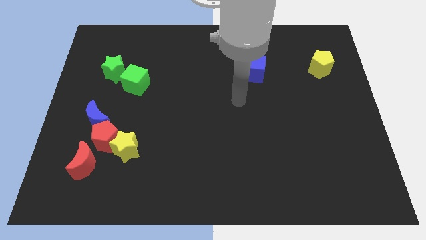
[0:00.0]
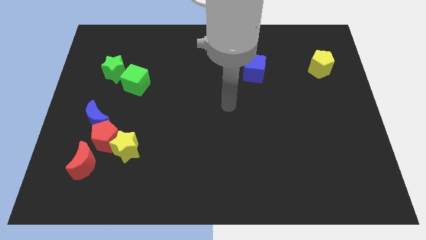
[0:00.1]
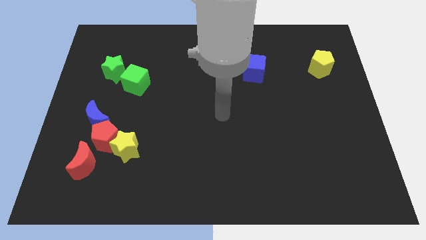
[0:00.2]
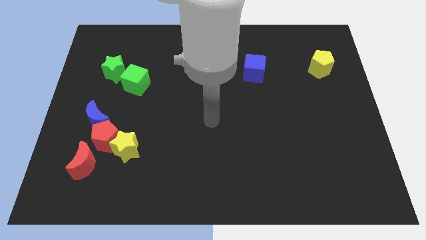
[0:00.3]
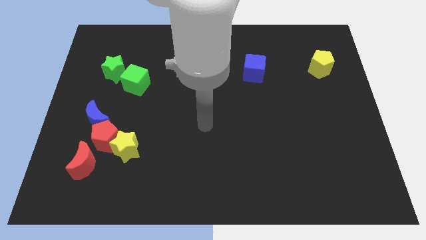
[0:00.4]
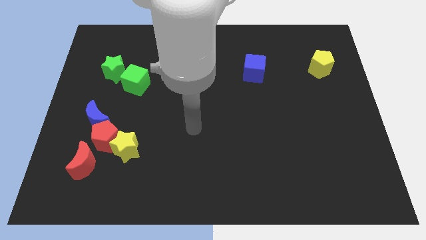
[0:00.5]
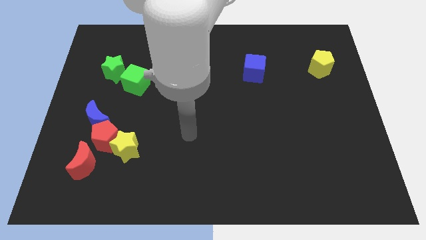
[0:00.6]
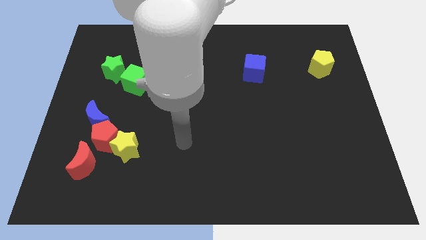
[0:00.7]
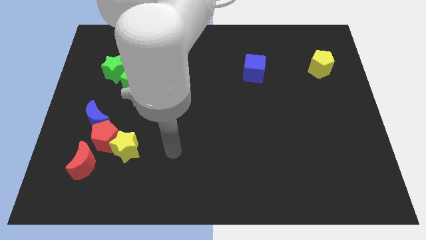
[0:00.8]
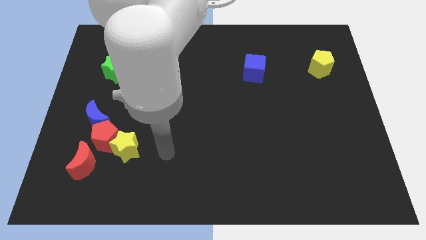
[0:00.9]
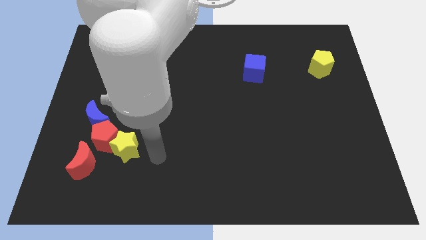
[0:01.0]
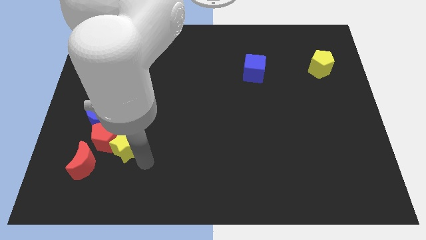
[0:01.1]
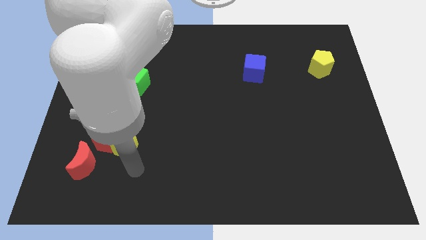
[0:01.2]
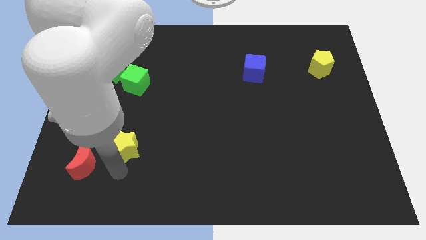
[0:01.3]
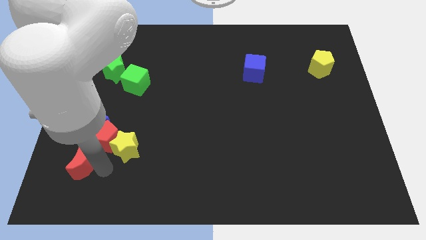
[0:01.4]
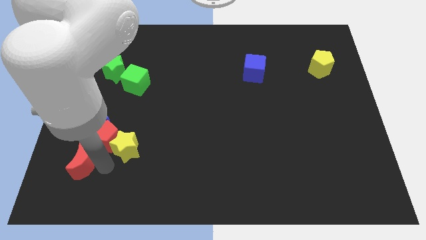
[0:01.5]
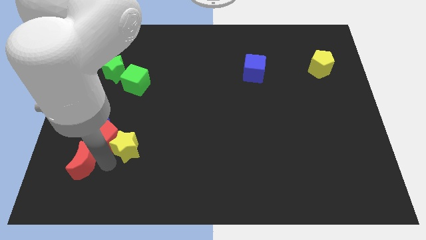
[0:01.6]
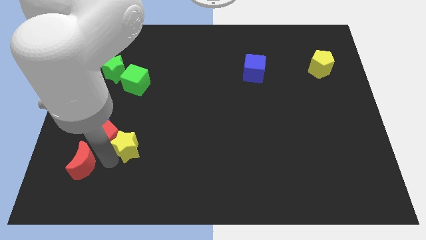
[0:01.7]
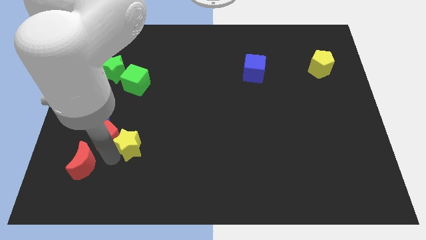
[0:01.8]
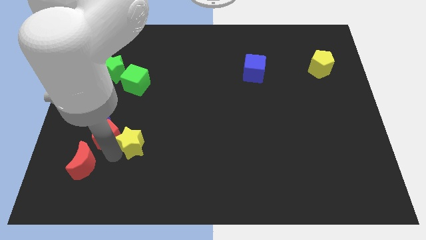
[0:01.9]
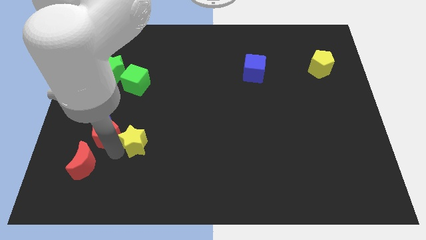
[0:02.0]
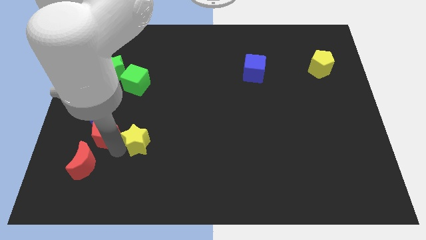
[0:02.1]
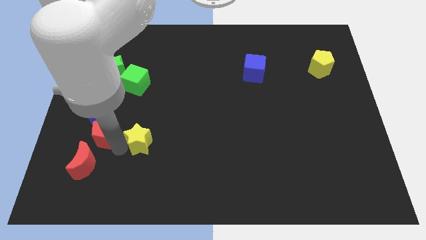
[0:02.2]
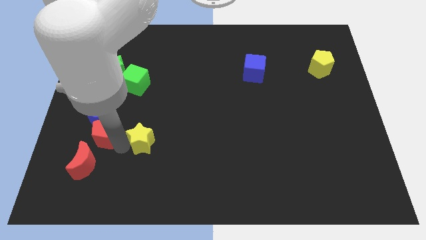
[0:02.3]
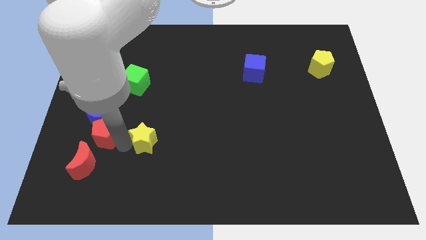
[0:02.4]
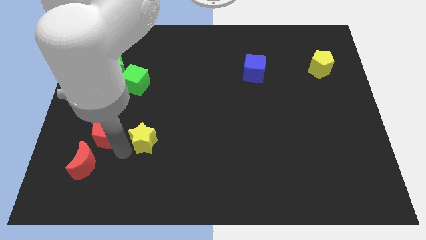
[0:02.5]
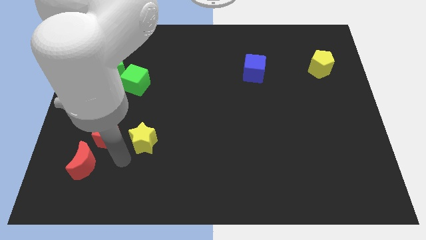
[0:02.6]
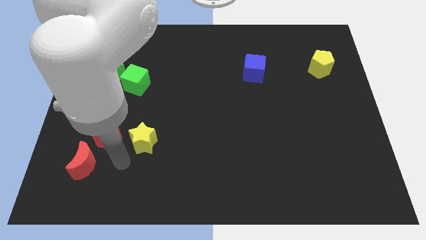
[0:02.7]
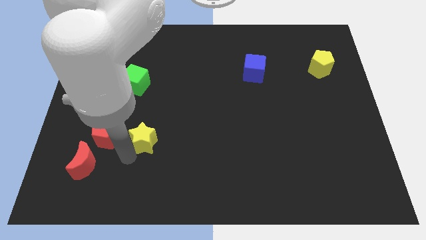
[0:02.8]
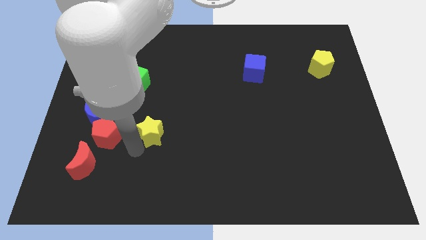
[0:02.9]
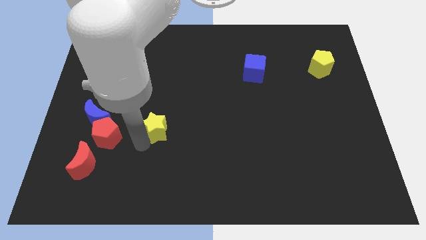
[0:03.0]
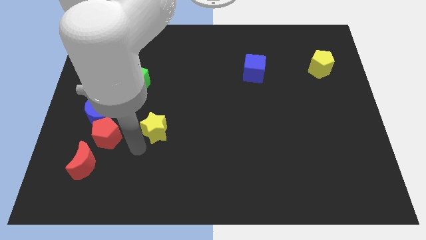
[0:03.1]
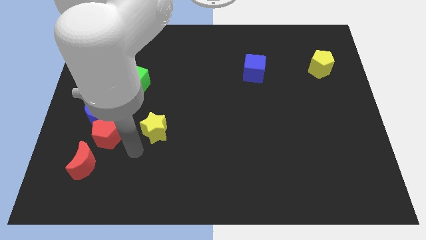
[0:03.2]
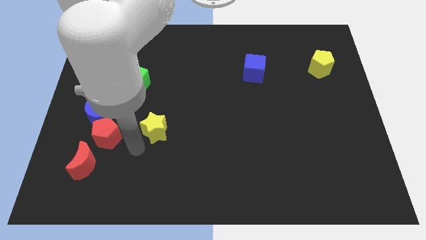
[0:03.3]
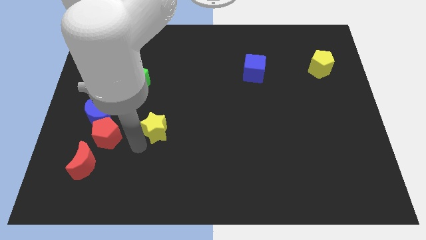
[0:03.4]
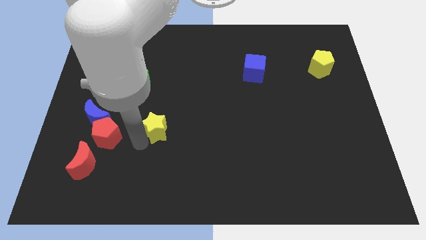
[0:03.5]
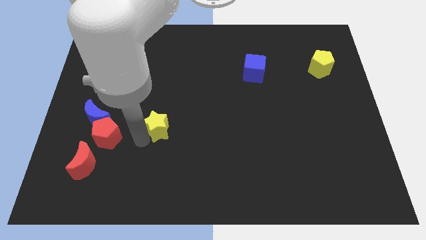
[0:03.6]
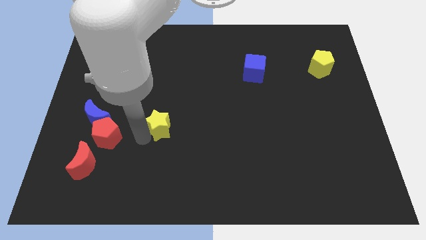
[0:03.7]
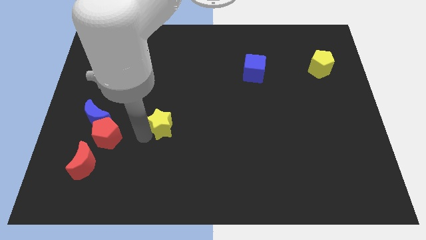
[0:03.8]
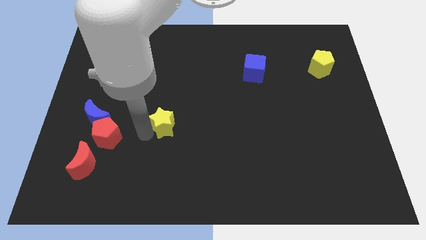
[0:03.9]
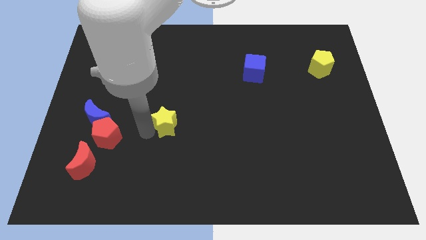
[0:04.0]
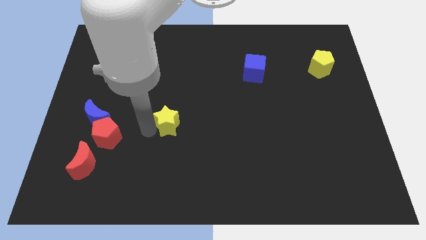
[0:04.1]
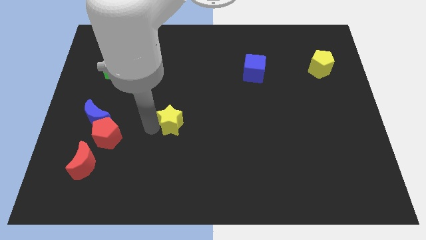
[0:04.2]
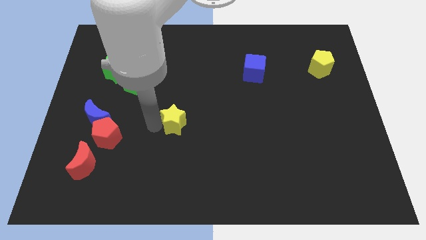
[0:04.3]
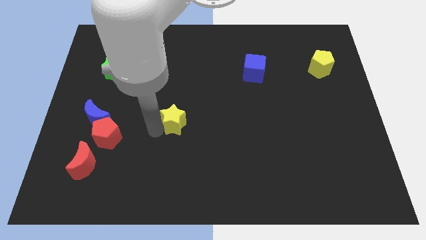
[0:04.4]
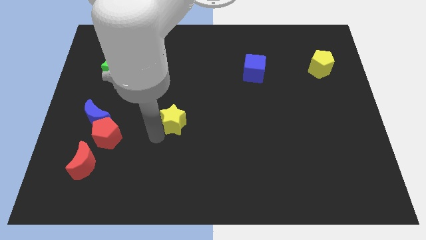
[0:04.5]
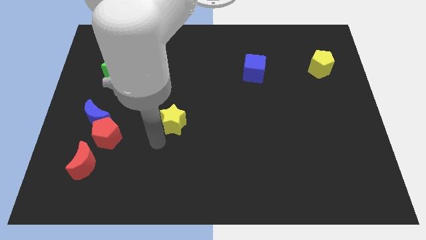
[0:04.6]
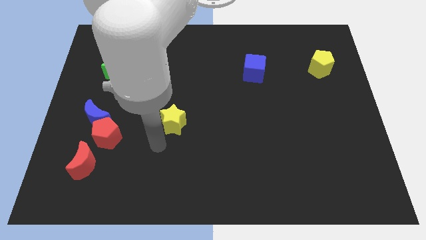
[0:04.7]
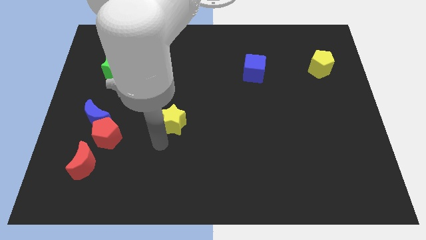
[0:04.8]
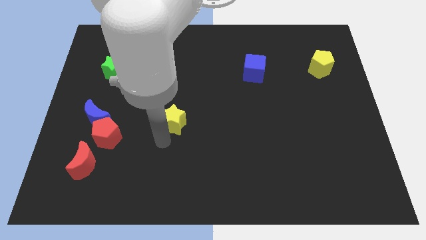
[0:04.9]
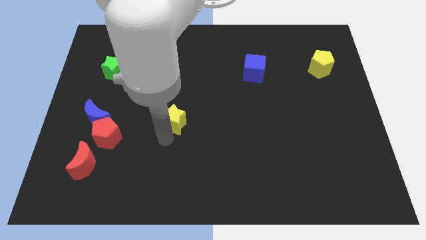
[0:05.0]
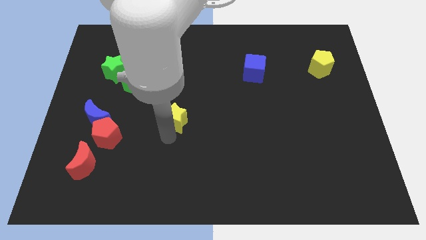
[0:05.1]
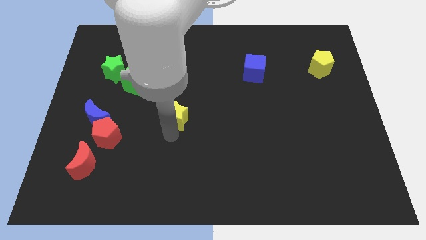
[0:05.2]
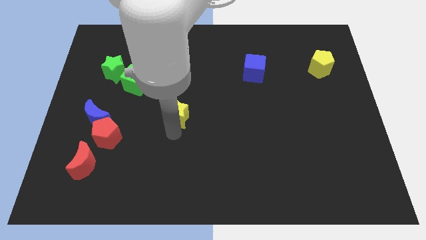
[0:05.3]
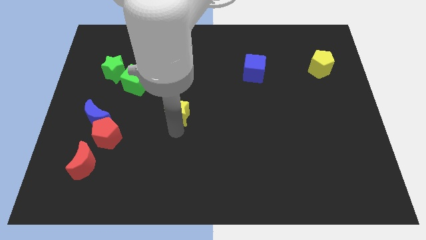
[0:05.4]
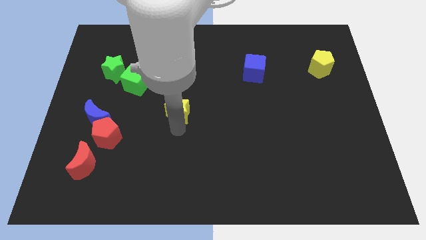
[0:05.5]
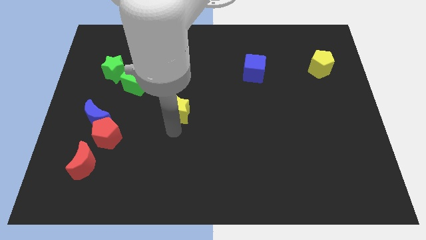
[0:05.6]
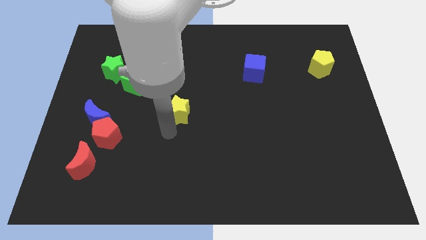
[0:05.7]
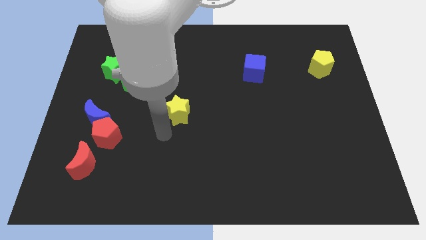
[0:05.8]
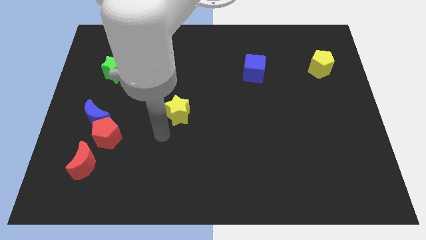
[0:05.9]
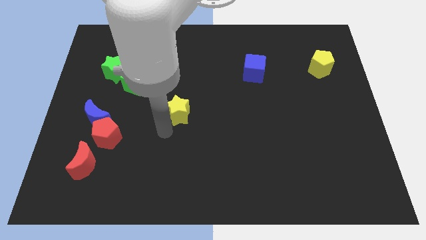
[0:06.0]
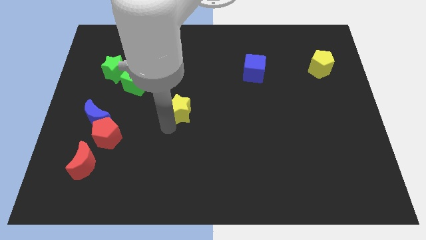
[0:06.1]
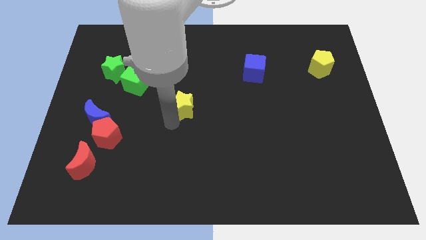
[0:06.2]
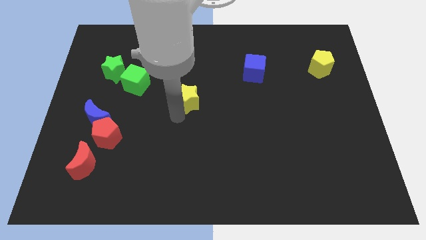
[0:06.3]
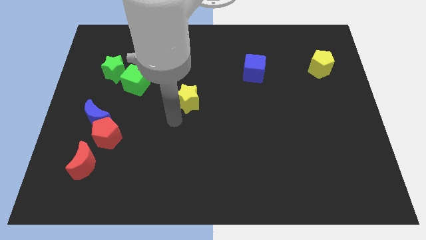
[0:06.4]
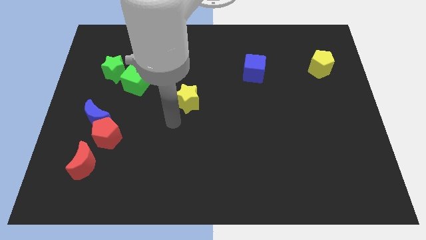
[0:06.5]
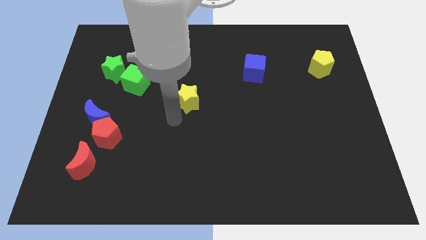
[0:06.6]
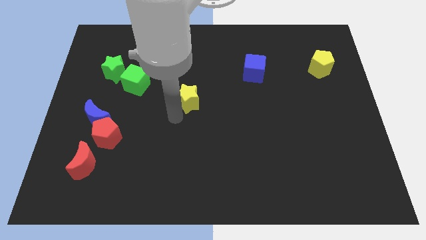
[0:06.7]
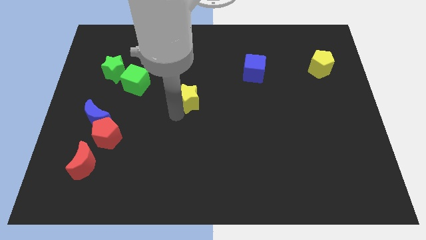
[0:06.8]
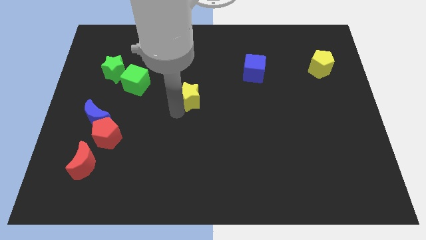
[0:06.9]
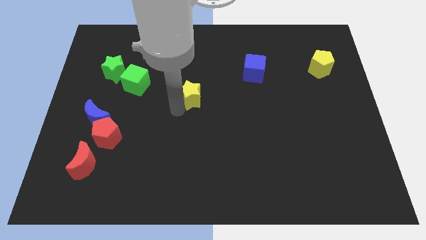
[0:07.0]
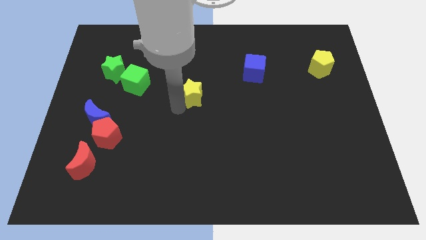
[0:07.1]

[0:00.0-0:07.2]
move the yellow star up and then right

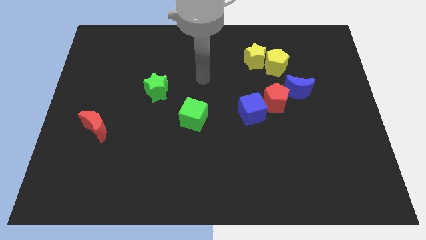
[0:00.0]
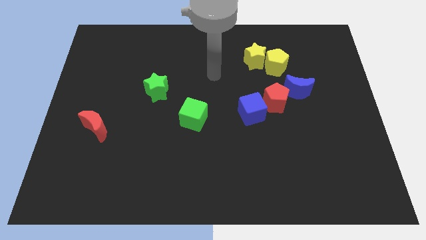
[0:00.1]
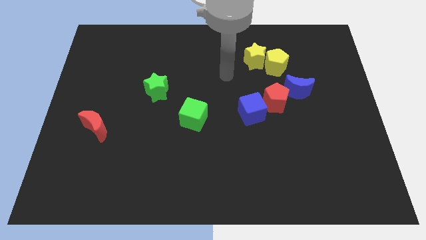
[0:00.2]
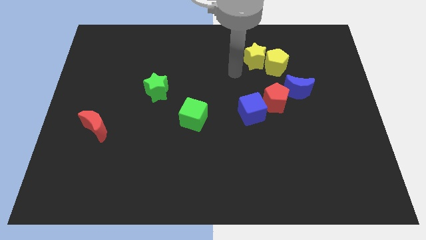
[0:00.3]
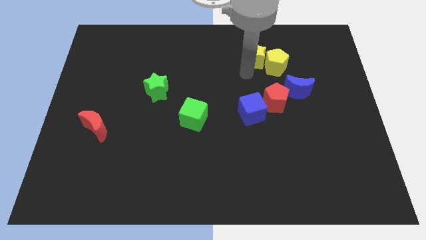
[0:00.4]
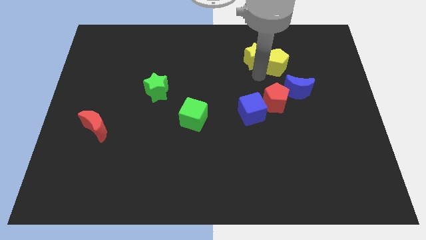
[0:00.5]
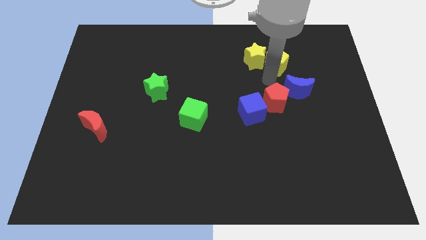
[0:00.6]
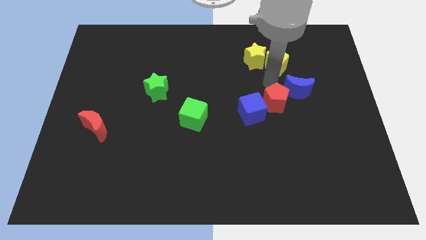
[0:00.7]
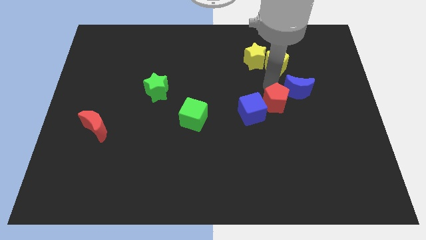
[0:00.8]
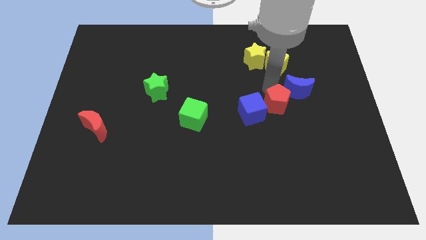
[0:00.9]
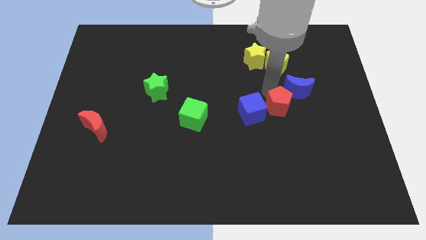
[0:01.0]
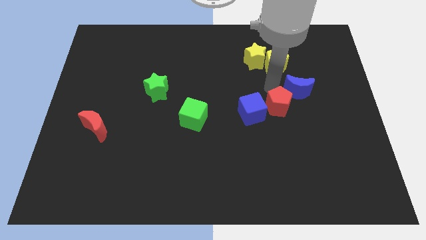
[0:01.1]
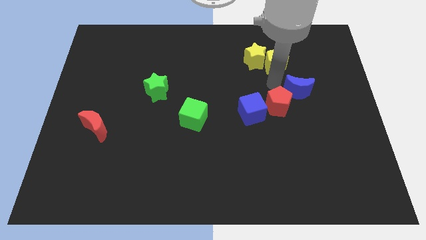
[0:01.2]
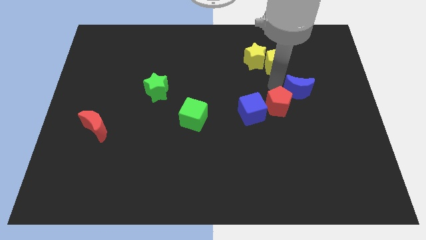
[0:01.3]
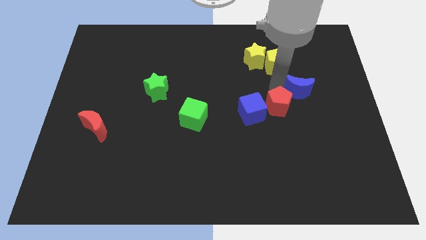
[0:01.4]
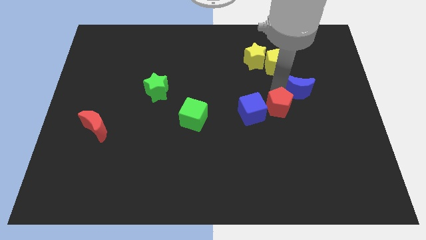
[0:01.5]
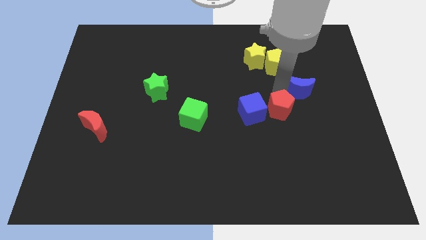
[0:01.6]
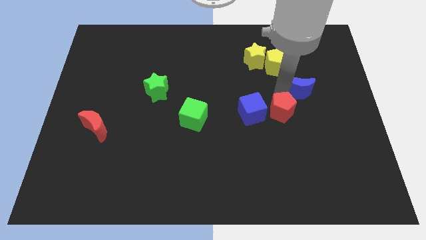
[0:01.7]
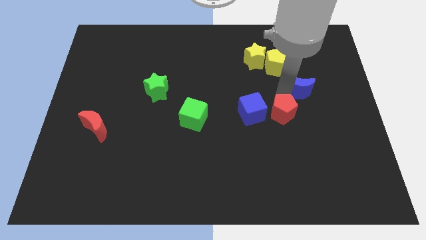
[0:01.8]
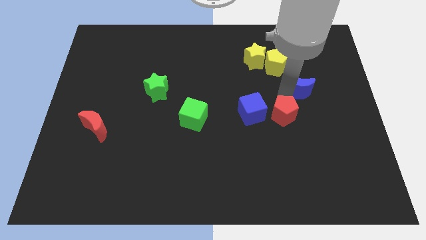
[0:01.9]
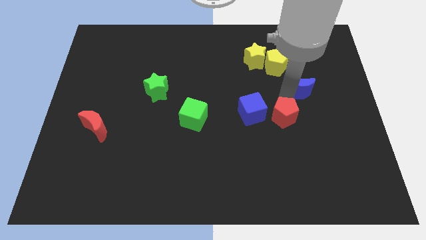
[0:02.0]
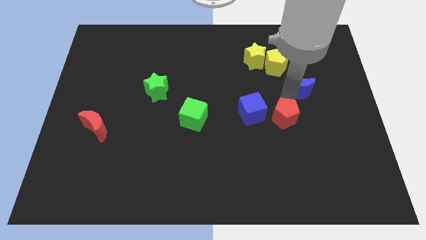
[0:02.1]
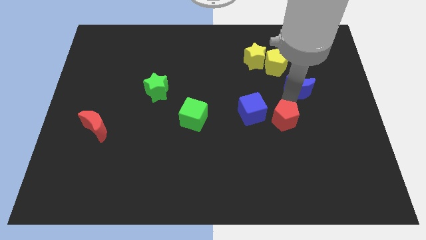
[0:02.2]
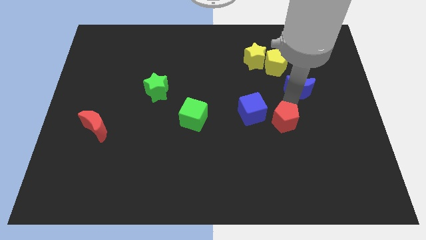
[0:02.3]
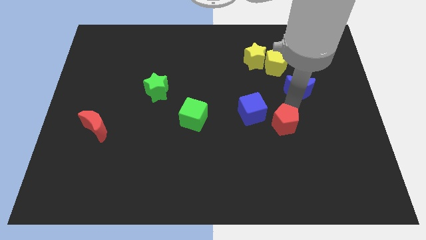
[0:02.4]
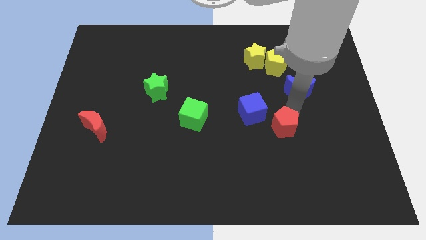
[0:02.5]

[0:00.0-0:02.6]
push the red pentagon downwards a little bit
